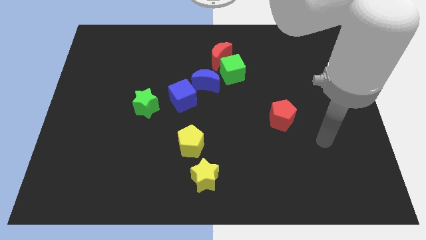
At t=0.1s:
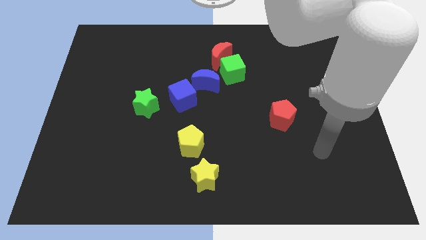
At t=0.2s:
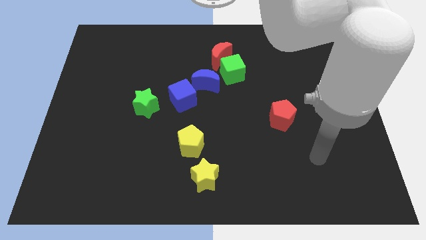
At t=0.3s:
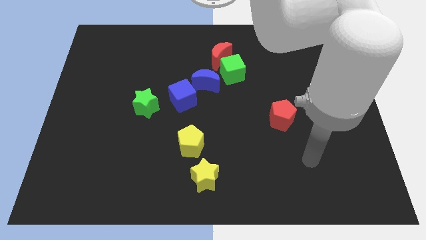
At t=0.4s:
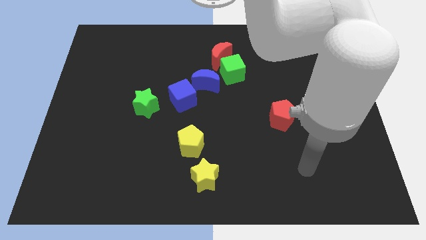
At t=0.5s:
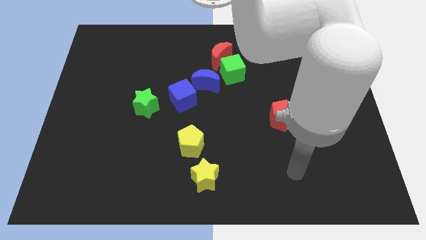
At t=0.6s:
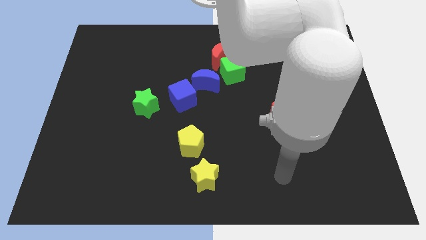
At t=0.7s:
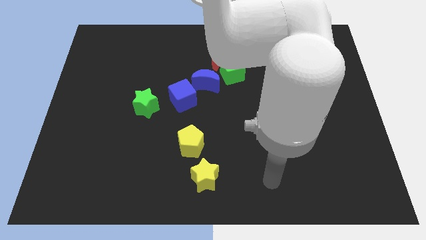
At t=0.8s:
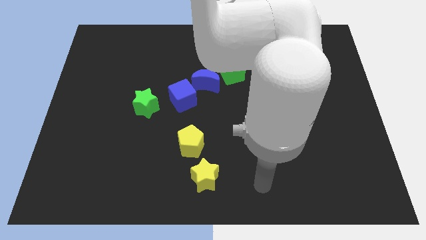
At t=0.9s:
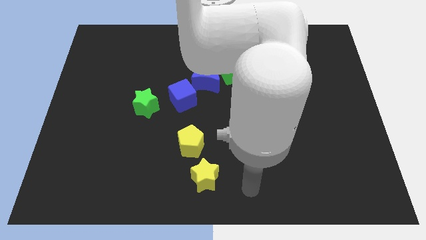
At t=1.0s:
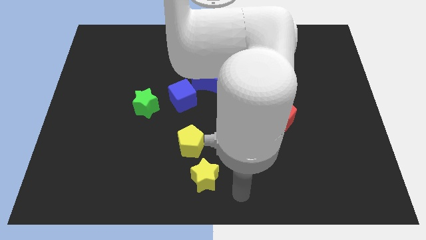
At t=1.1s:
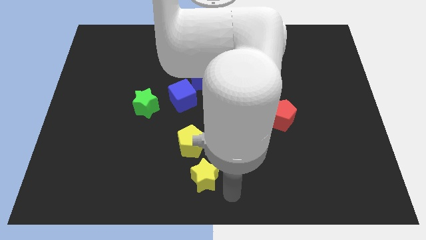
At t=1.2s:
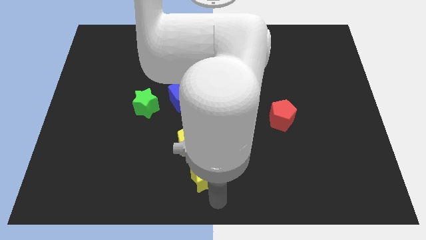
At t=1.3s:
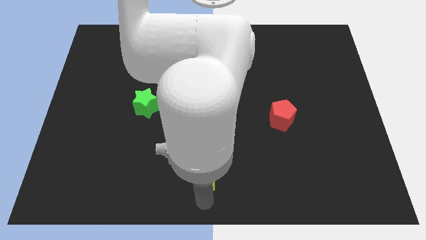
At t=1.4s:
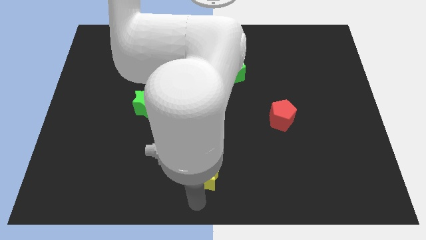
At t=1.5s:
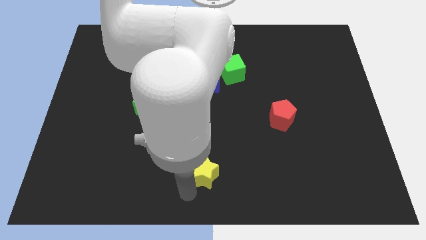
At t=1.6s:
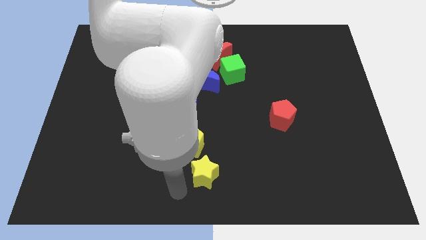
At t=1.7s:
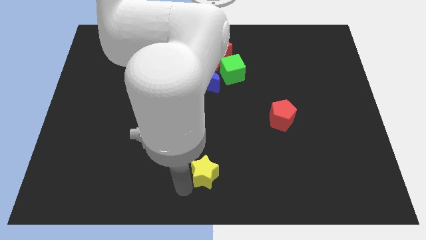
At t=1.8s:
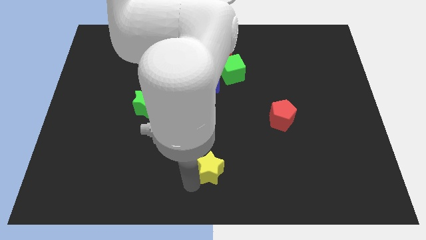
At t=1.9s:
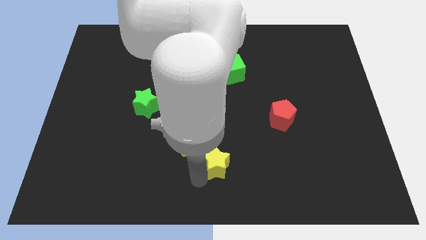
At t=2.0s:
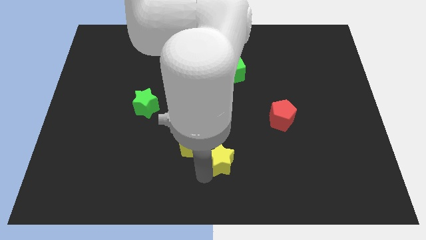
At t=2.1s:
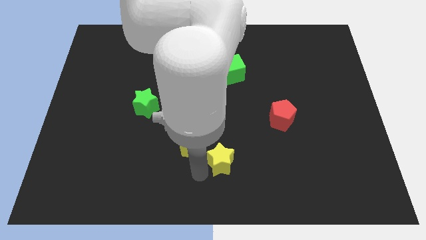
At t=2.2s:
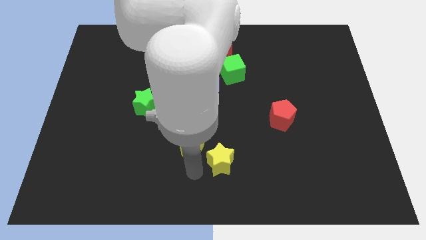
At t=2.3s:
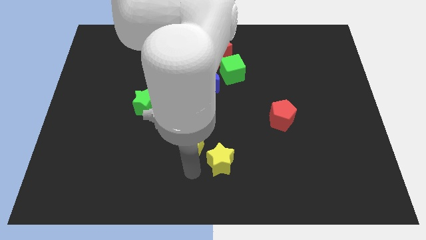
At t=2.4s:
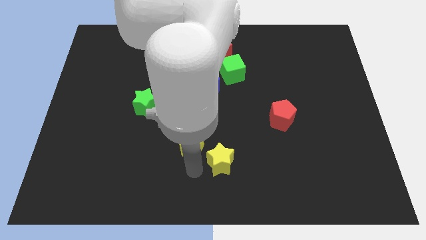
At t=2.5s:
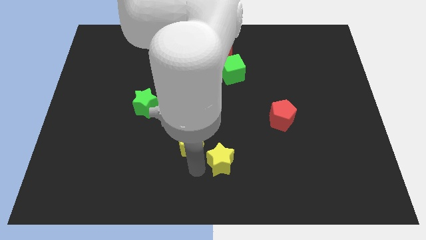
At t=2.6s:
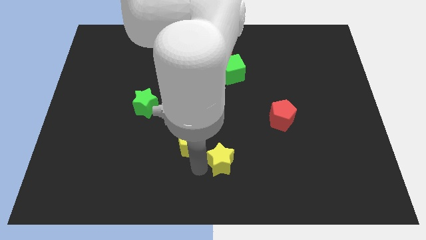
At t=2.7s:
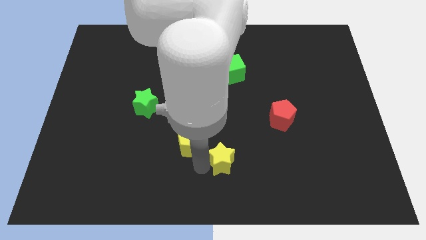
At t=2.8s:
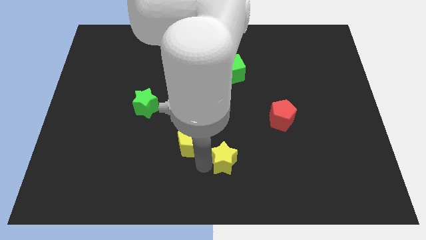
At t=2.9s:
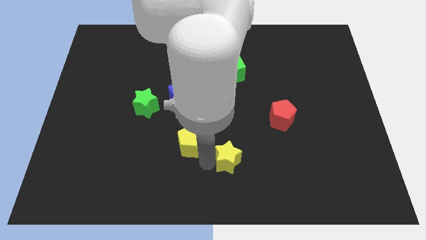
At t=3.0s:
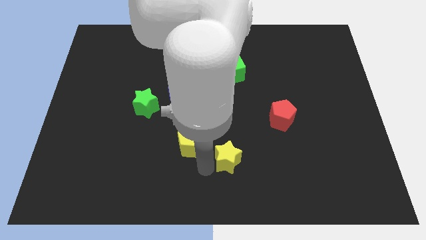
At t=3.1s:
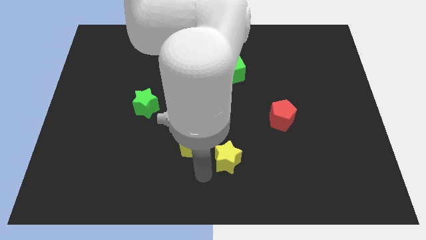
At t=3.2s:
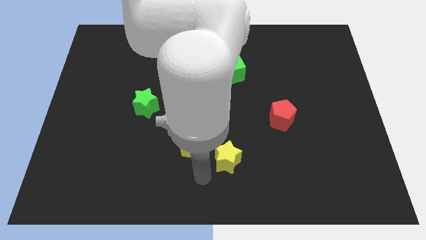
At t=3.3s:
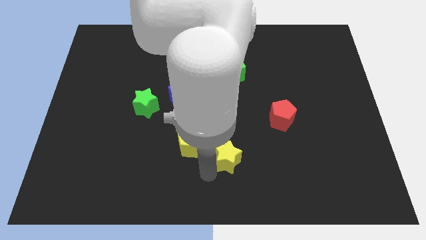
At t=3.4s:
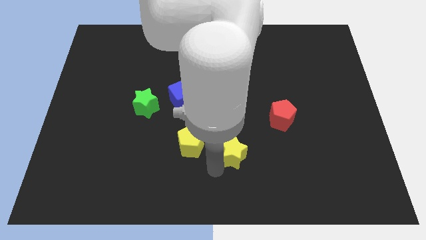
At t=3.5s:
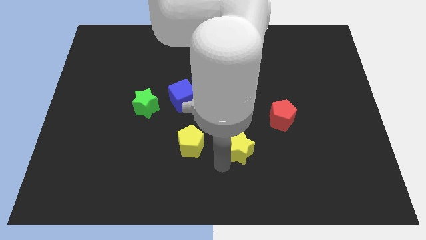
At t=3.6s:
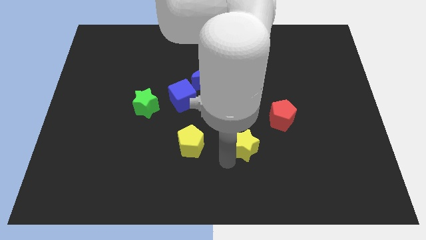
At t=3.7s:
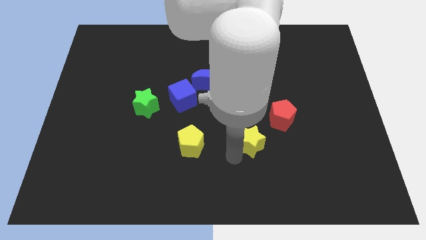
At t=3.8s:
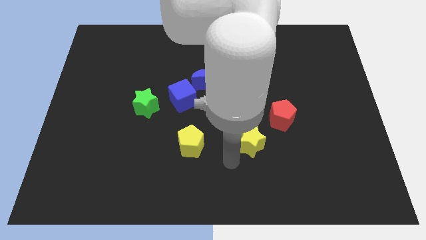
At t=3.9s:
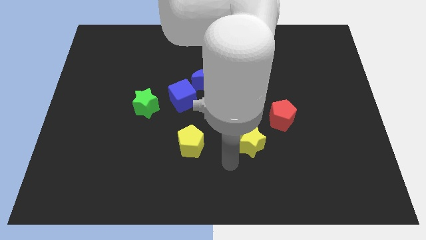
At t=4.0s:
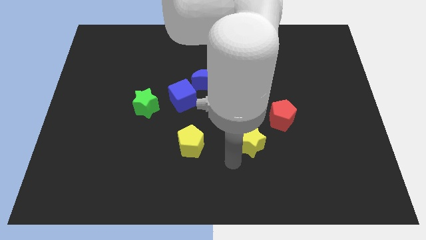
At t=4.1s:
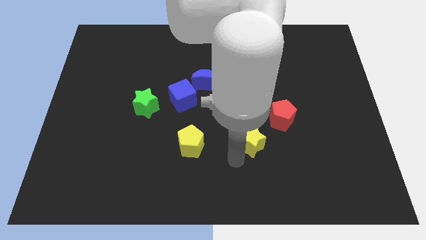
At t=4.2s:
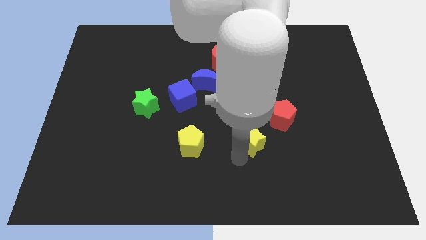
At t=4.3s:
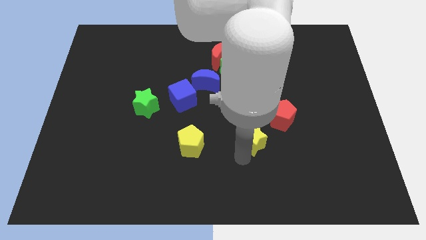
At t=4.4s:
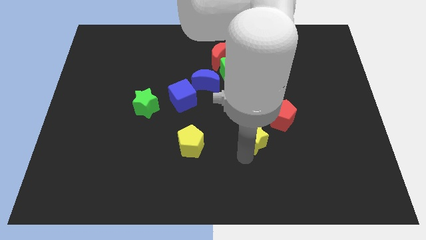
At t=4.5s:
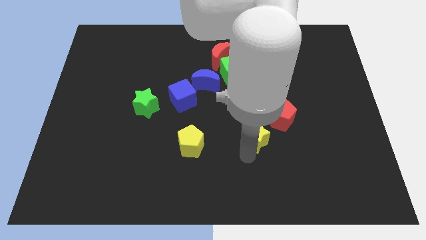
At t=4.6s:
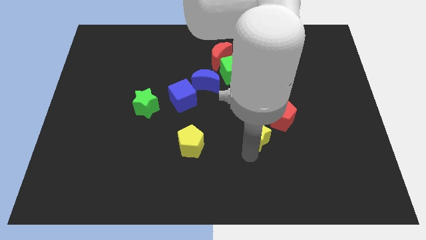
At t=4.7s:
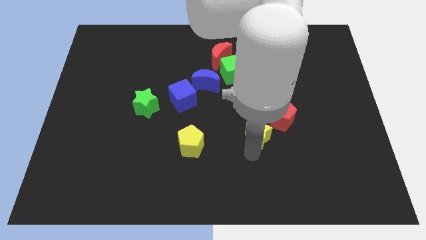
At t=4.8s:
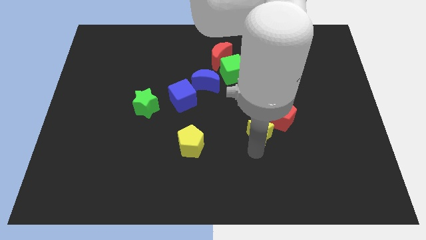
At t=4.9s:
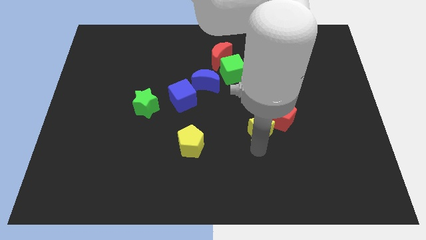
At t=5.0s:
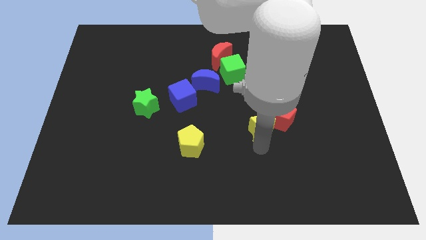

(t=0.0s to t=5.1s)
move the yellow star next to the red pentagon

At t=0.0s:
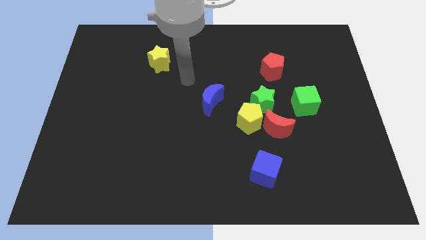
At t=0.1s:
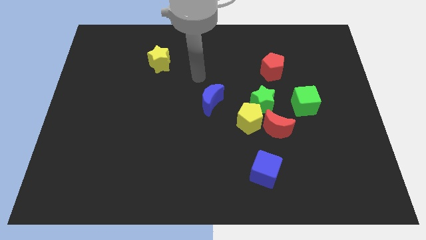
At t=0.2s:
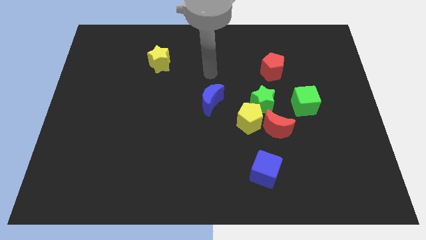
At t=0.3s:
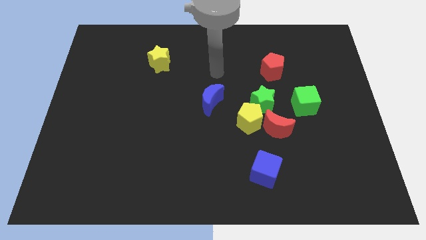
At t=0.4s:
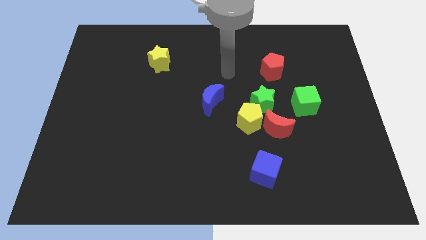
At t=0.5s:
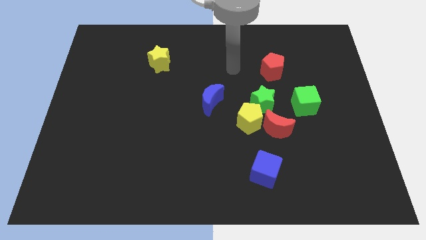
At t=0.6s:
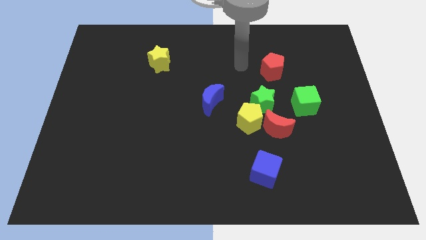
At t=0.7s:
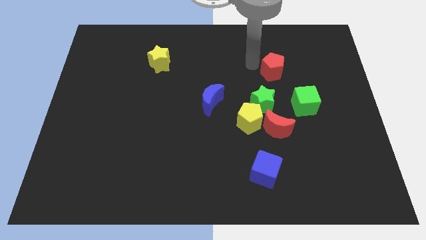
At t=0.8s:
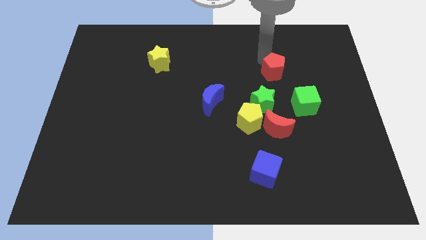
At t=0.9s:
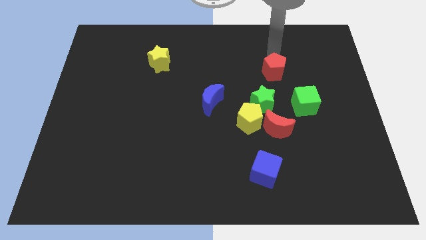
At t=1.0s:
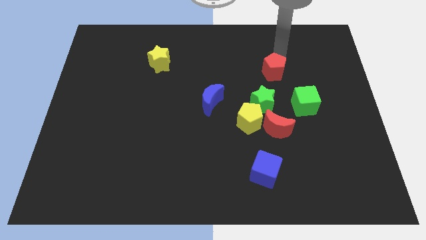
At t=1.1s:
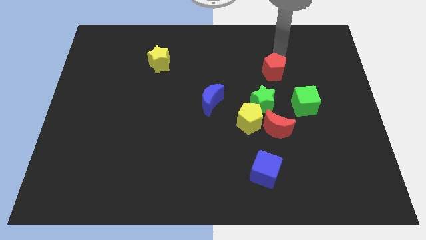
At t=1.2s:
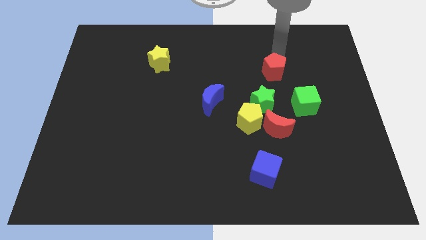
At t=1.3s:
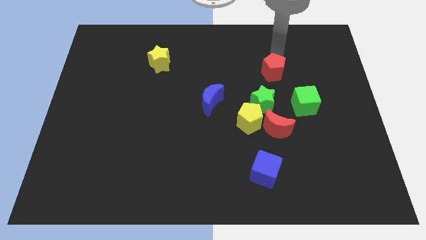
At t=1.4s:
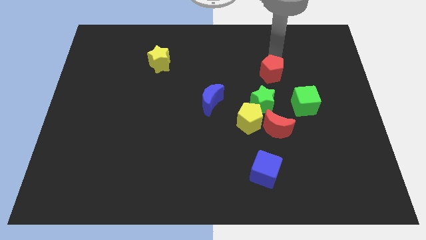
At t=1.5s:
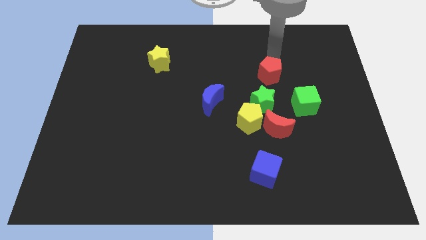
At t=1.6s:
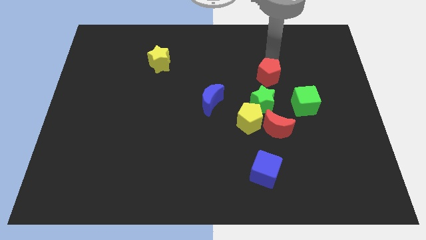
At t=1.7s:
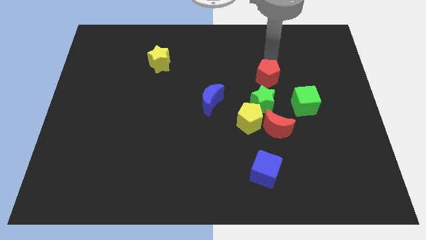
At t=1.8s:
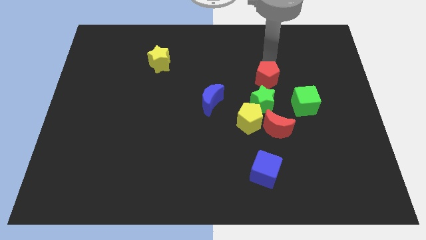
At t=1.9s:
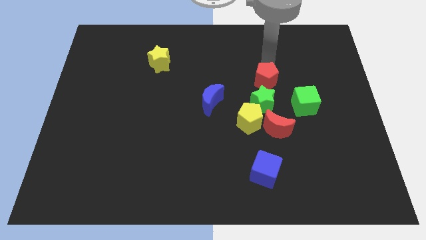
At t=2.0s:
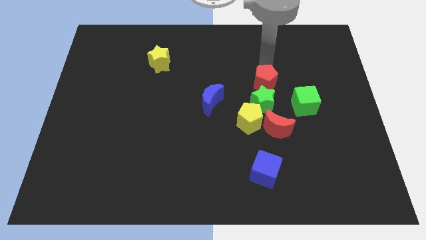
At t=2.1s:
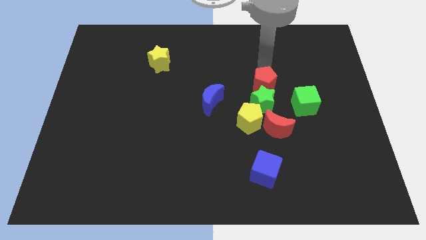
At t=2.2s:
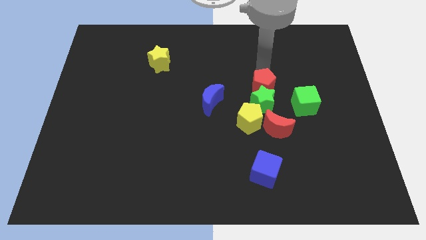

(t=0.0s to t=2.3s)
move the red pentagon close to the green star
